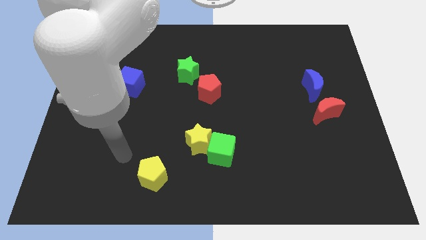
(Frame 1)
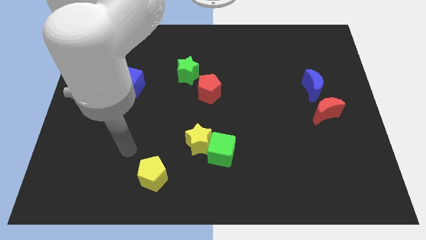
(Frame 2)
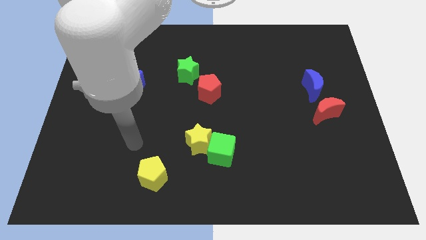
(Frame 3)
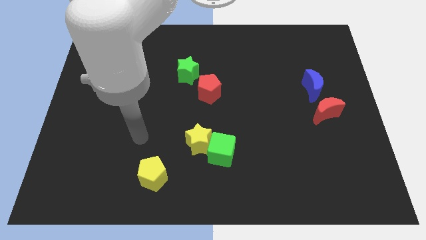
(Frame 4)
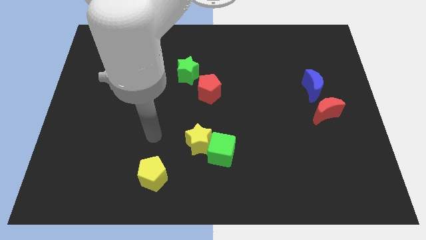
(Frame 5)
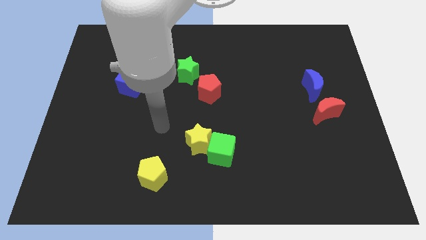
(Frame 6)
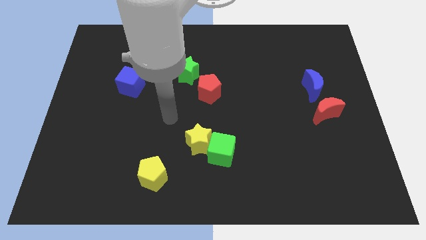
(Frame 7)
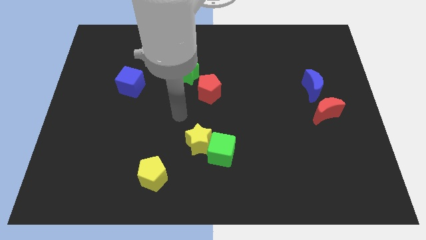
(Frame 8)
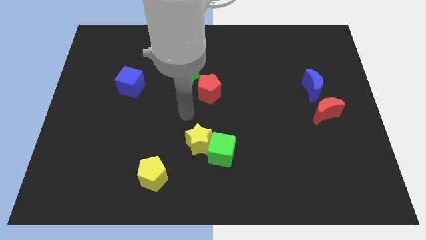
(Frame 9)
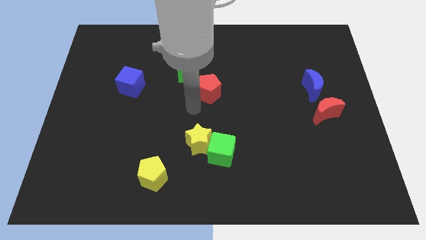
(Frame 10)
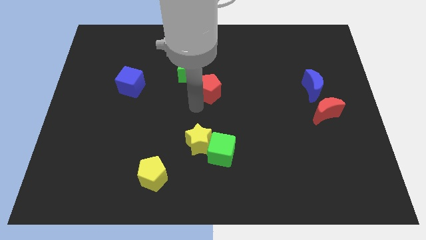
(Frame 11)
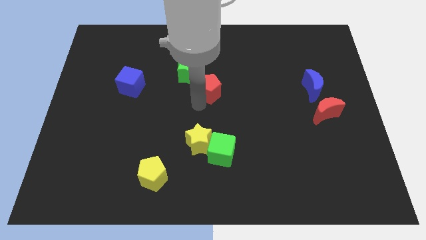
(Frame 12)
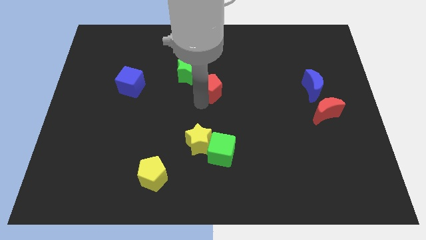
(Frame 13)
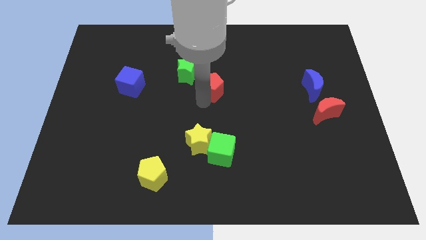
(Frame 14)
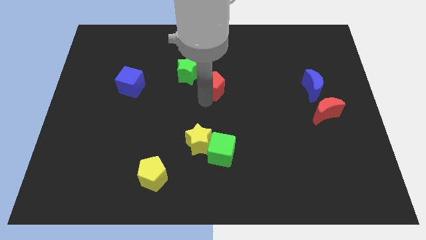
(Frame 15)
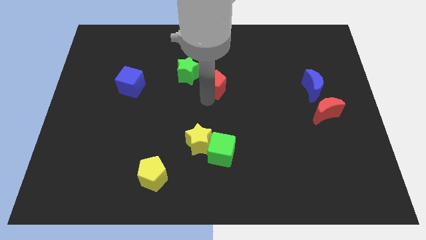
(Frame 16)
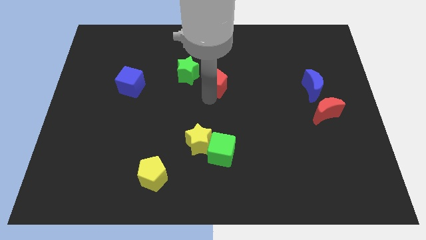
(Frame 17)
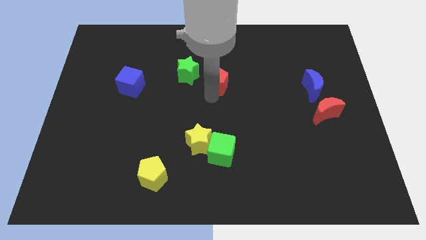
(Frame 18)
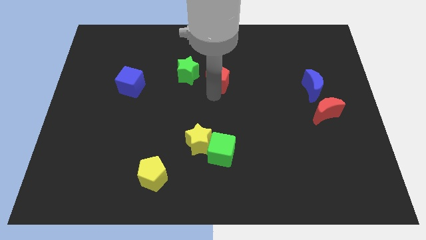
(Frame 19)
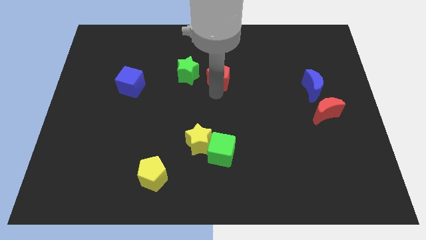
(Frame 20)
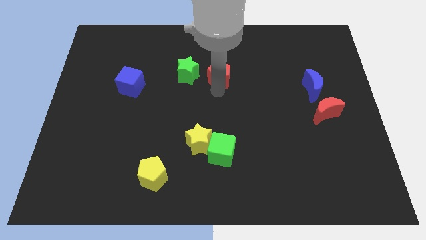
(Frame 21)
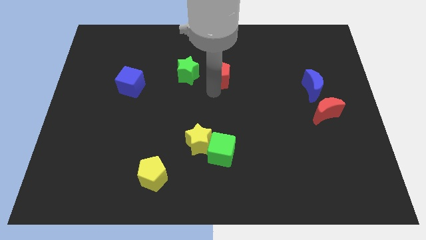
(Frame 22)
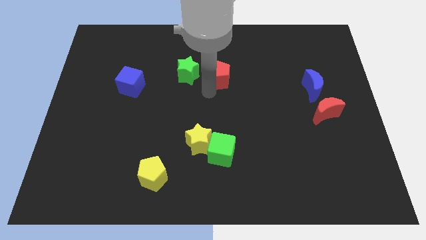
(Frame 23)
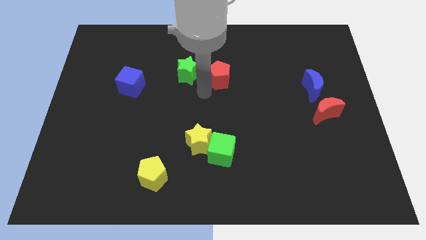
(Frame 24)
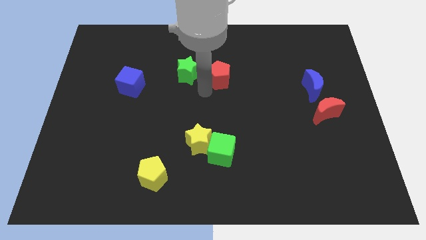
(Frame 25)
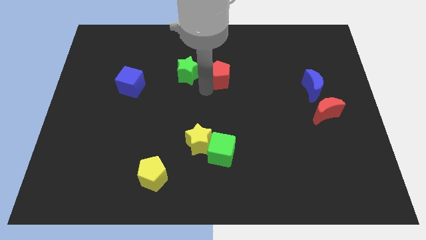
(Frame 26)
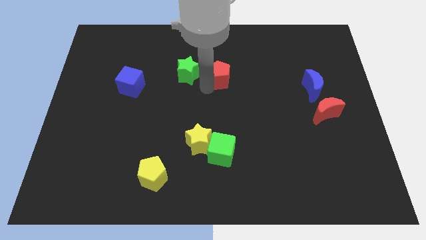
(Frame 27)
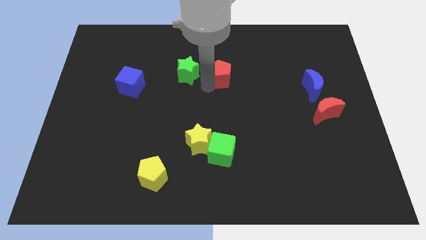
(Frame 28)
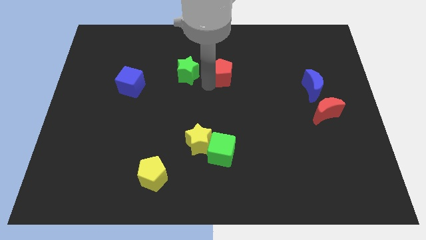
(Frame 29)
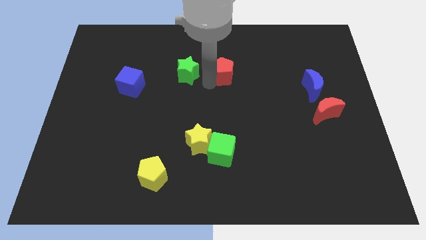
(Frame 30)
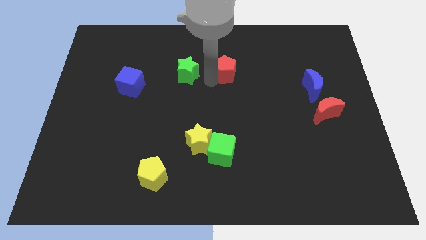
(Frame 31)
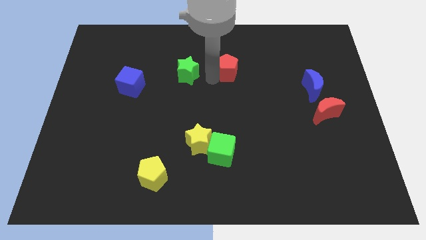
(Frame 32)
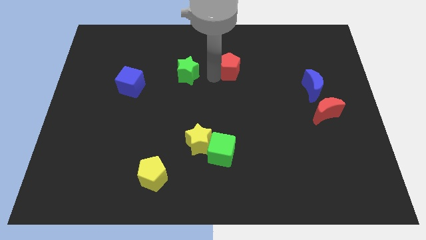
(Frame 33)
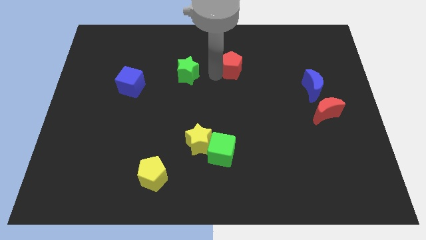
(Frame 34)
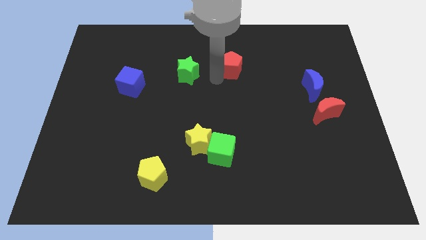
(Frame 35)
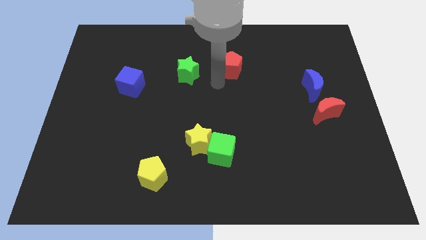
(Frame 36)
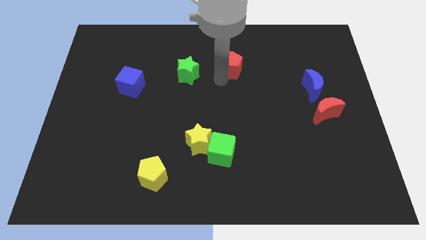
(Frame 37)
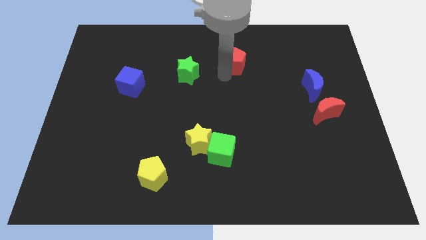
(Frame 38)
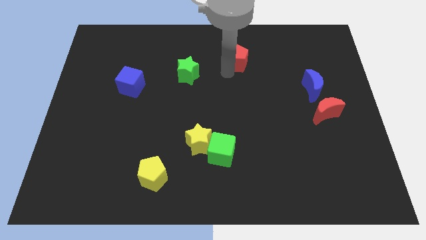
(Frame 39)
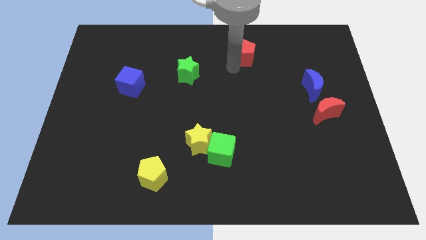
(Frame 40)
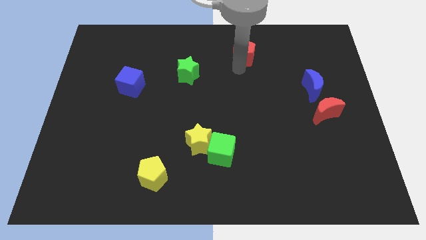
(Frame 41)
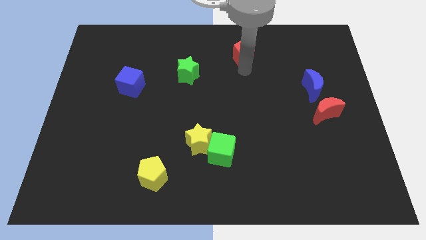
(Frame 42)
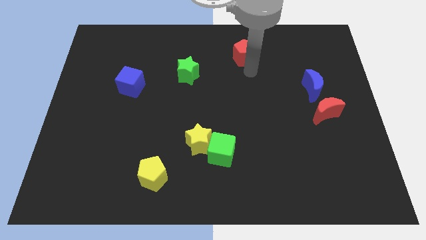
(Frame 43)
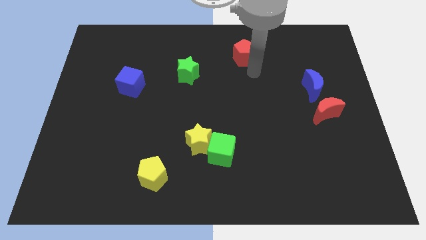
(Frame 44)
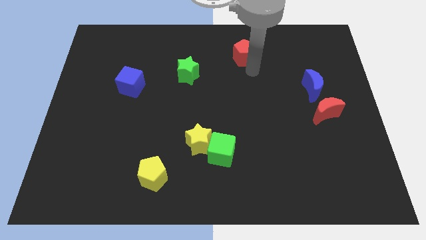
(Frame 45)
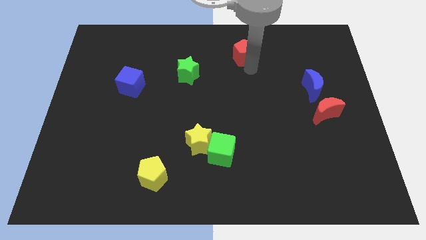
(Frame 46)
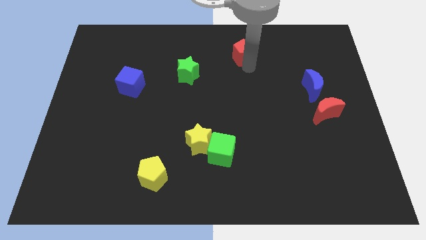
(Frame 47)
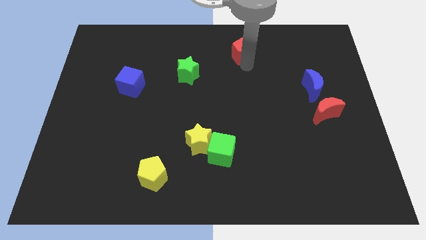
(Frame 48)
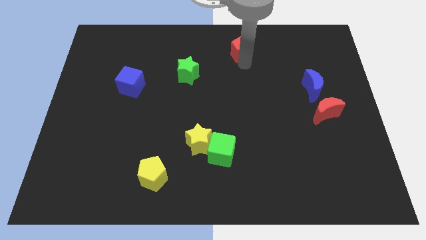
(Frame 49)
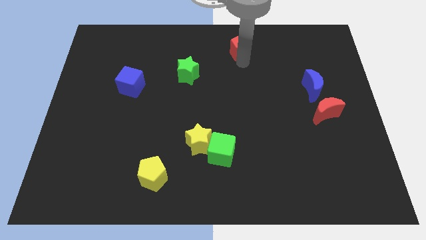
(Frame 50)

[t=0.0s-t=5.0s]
push the red pentagon to the towards your base

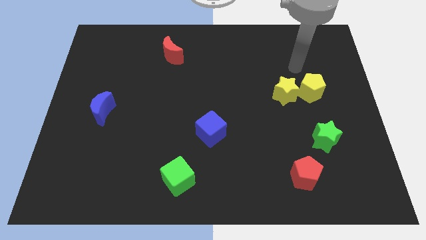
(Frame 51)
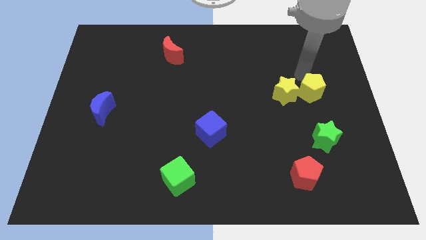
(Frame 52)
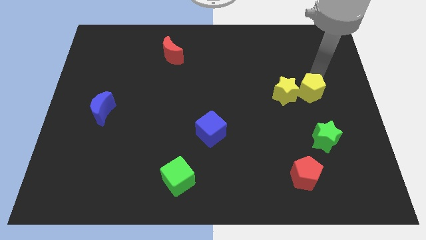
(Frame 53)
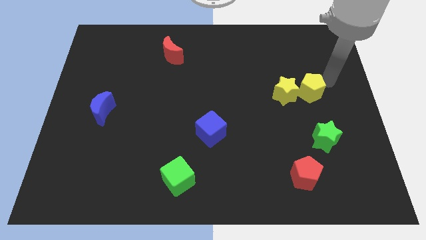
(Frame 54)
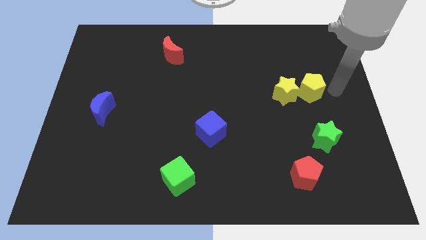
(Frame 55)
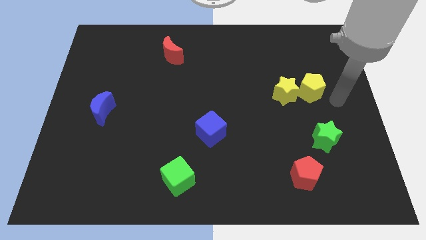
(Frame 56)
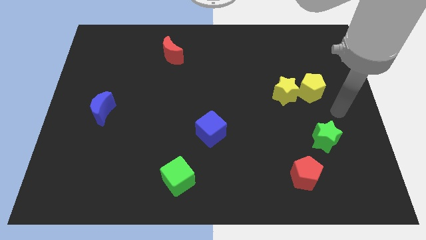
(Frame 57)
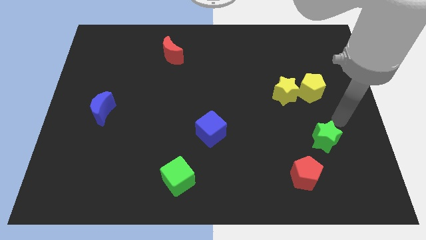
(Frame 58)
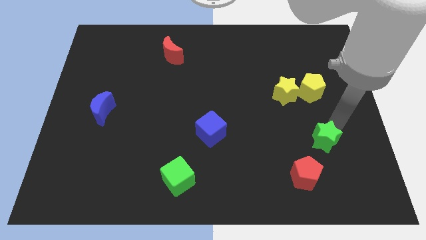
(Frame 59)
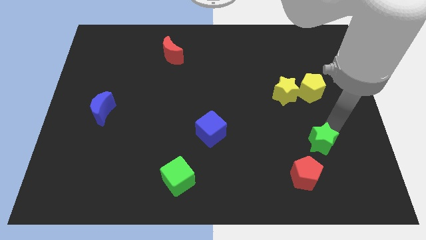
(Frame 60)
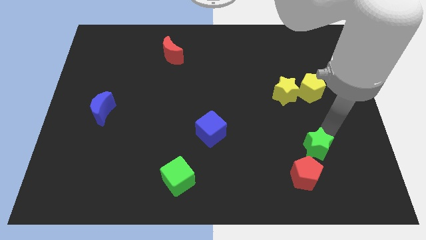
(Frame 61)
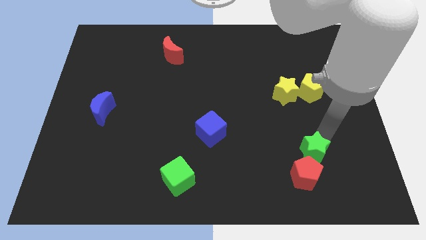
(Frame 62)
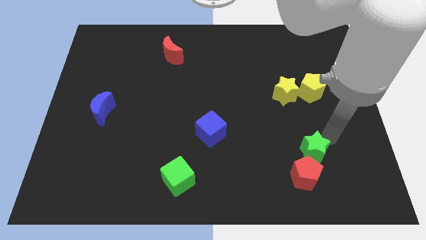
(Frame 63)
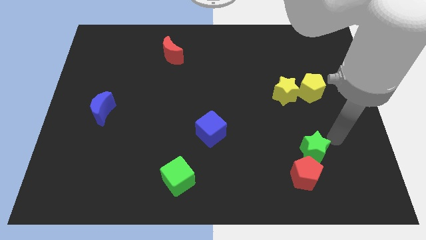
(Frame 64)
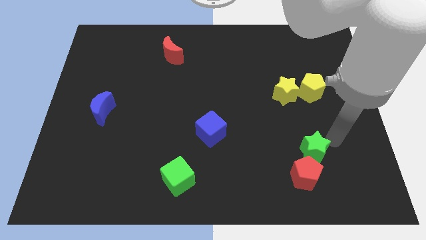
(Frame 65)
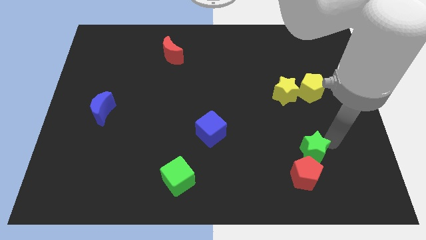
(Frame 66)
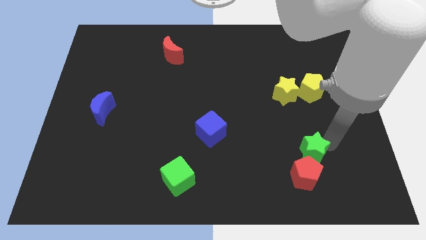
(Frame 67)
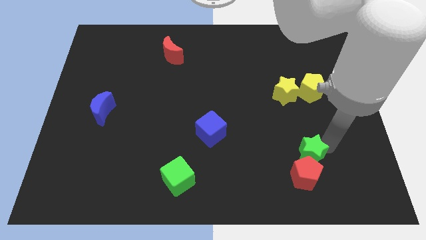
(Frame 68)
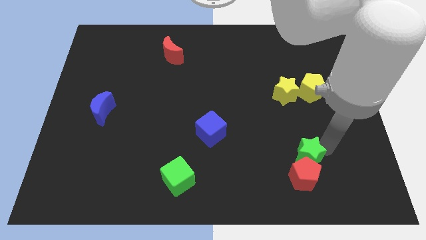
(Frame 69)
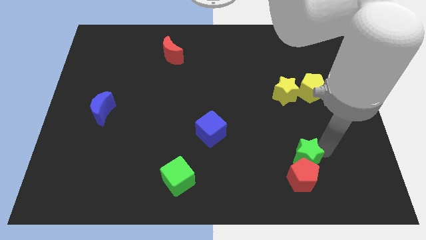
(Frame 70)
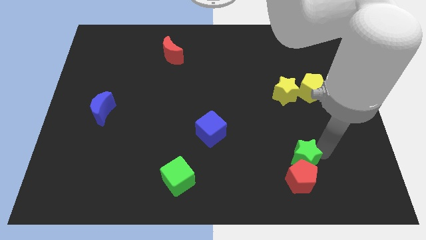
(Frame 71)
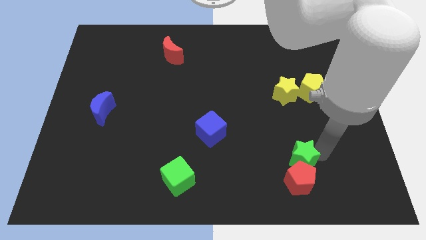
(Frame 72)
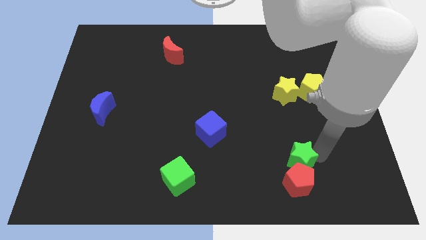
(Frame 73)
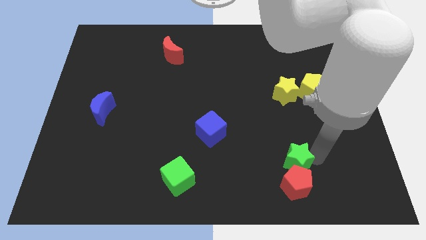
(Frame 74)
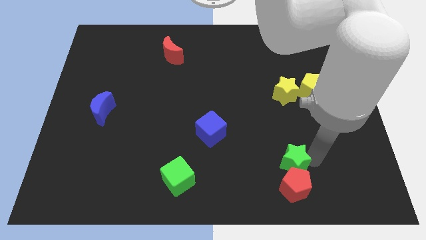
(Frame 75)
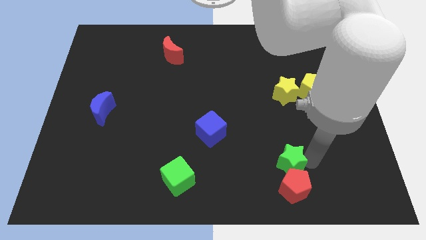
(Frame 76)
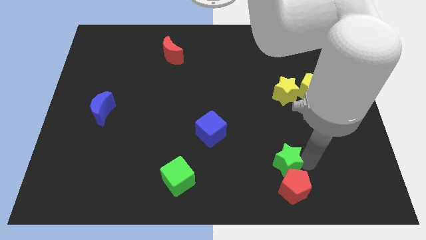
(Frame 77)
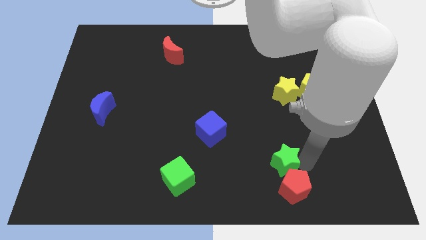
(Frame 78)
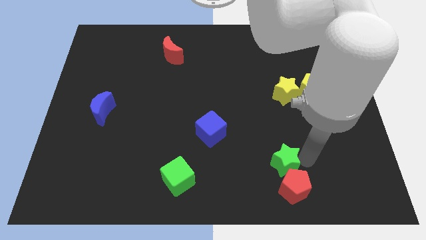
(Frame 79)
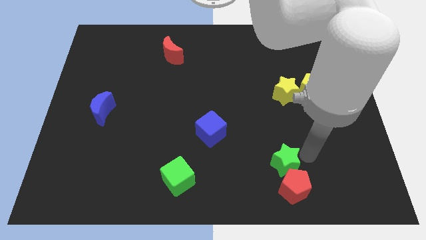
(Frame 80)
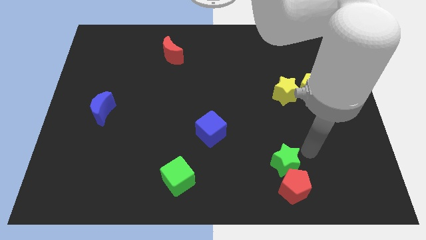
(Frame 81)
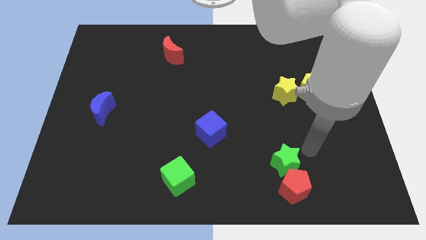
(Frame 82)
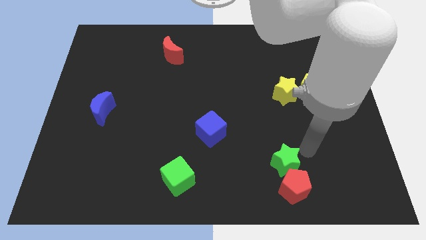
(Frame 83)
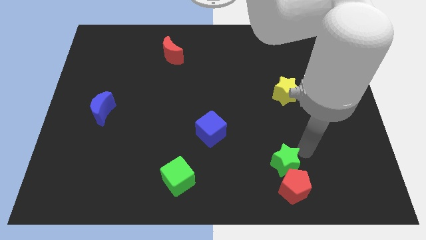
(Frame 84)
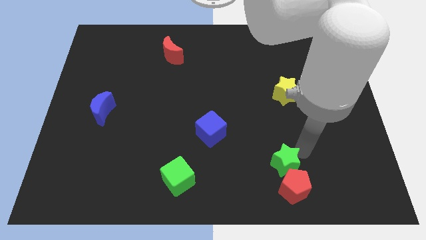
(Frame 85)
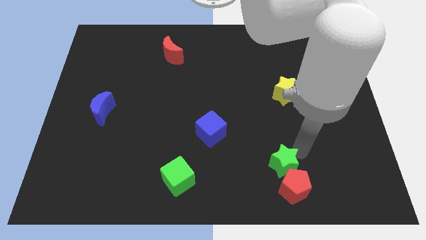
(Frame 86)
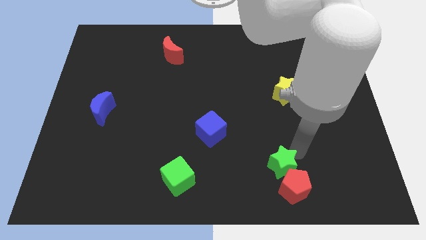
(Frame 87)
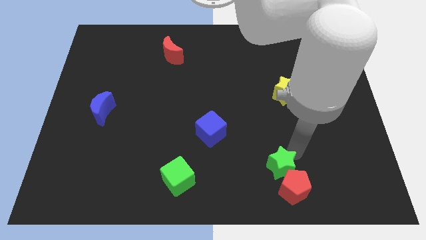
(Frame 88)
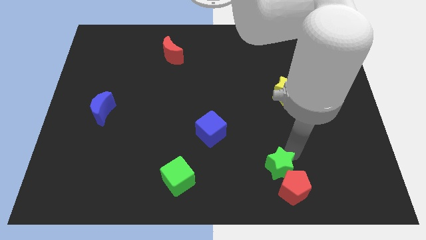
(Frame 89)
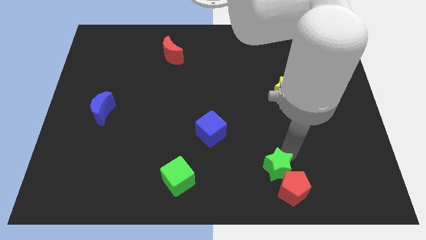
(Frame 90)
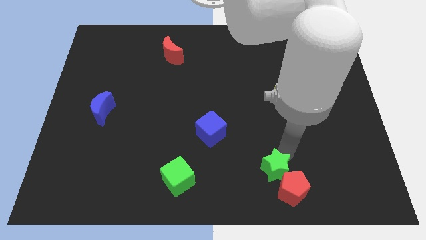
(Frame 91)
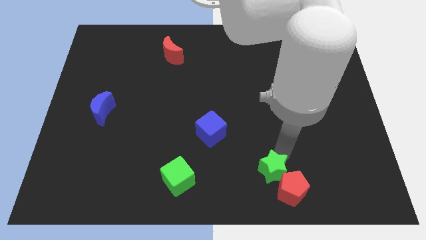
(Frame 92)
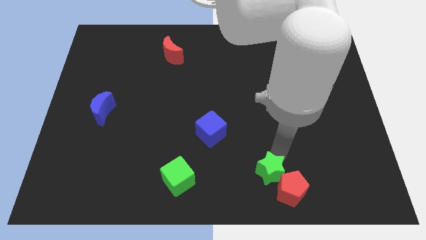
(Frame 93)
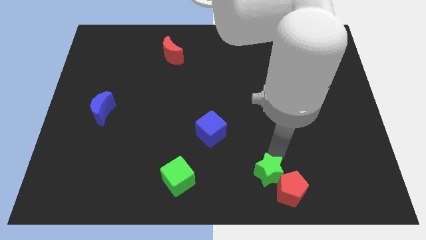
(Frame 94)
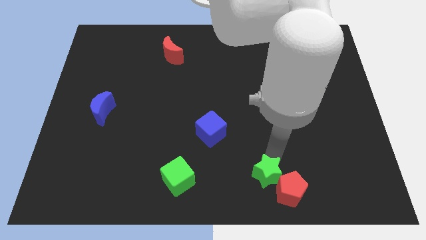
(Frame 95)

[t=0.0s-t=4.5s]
move the green star to the bottom side
